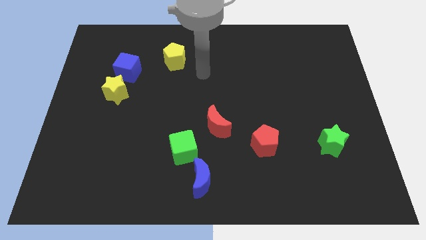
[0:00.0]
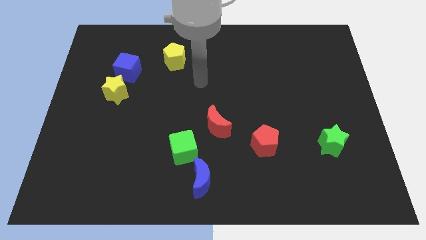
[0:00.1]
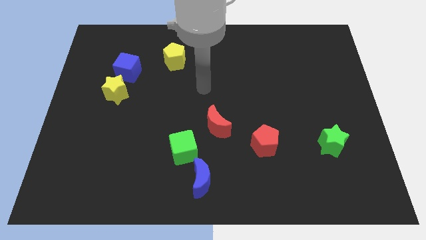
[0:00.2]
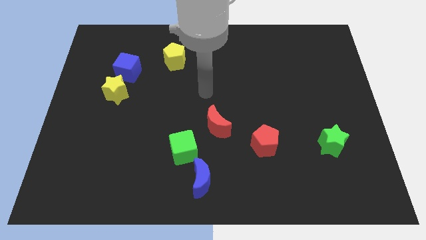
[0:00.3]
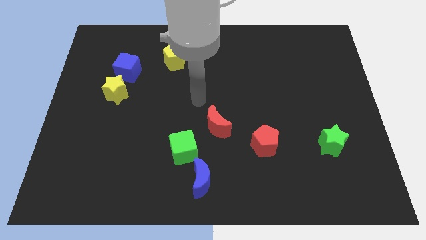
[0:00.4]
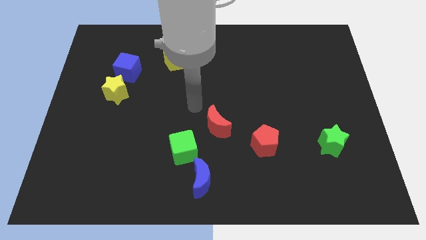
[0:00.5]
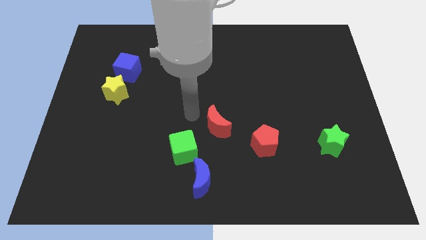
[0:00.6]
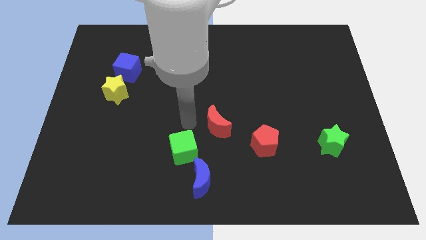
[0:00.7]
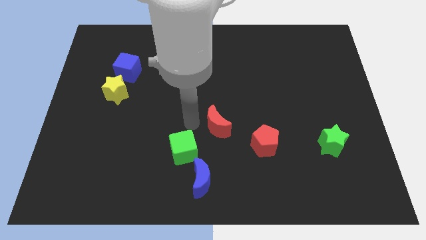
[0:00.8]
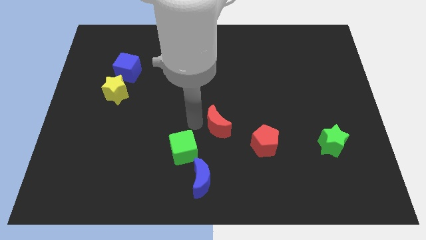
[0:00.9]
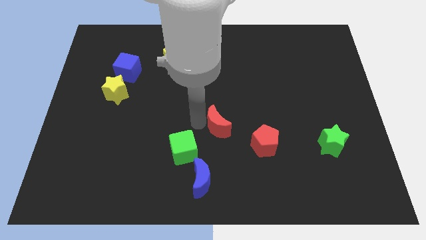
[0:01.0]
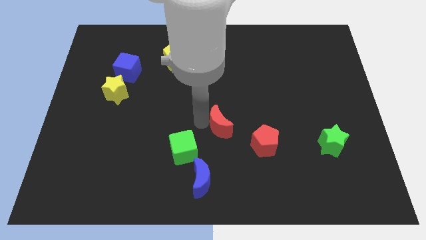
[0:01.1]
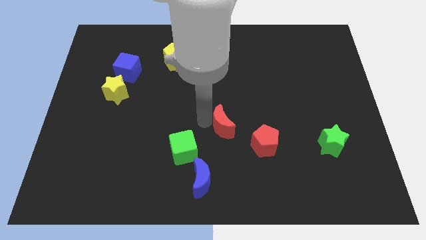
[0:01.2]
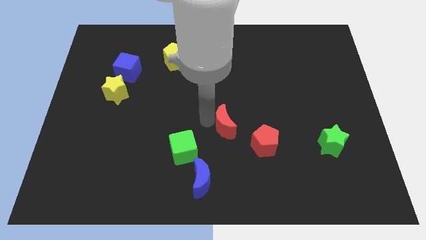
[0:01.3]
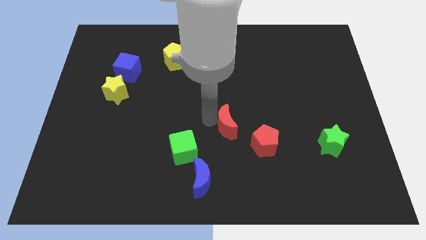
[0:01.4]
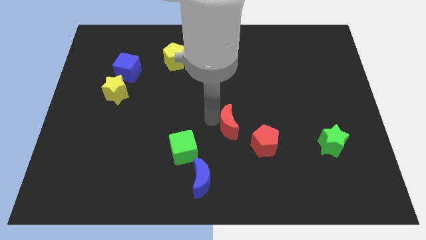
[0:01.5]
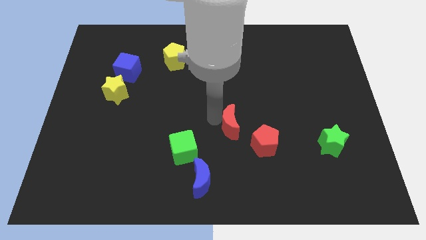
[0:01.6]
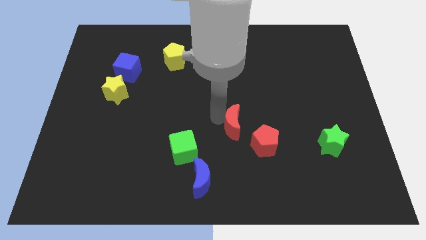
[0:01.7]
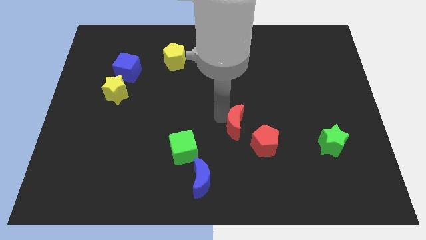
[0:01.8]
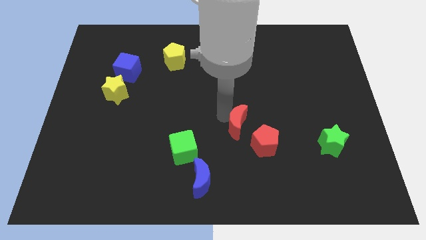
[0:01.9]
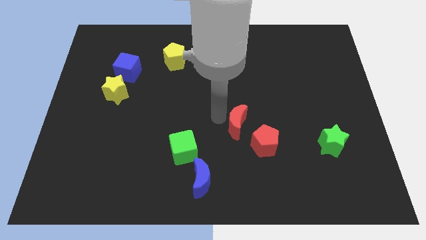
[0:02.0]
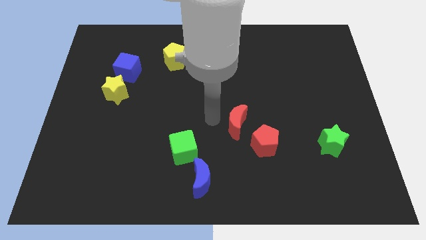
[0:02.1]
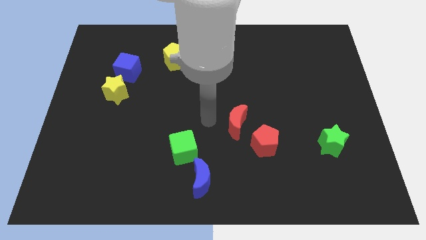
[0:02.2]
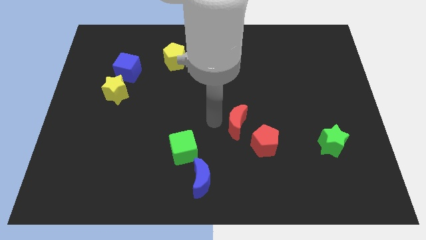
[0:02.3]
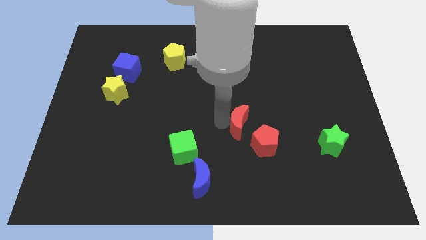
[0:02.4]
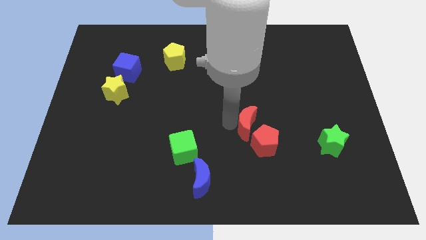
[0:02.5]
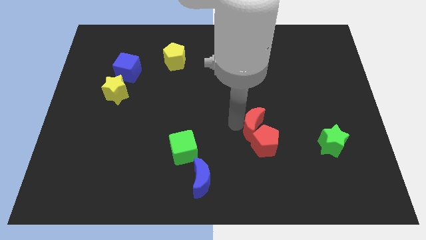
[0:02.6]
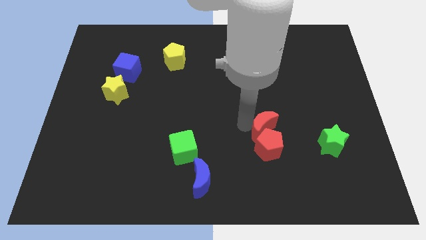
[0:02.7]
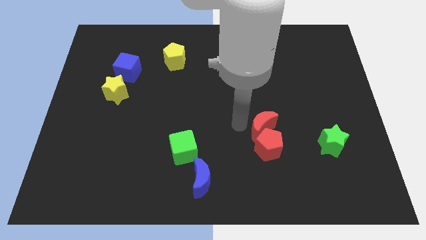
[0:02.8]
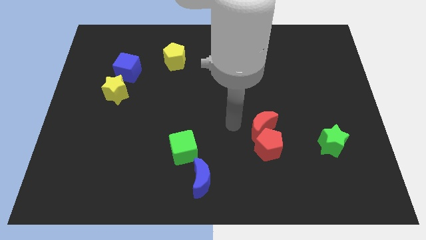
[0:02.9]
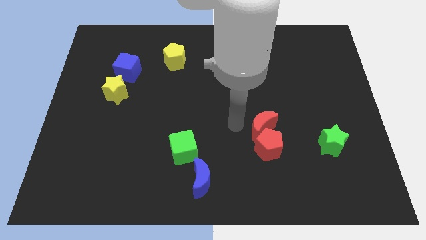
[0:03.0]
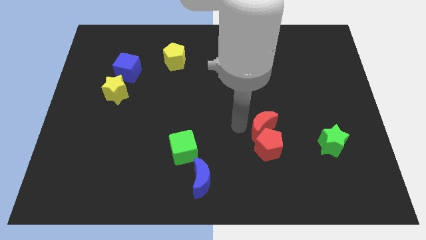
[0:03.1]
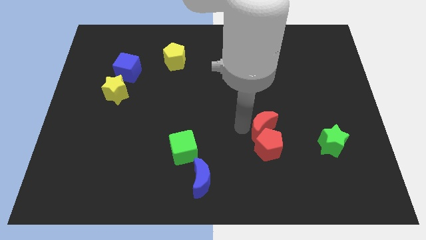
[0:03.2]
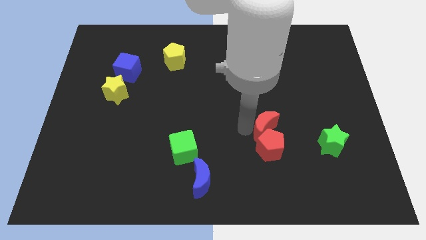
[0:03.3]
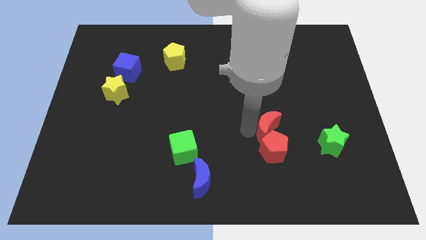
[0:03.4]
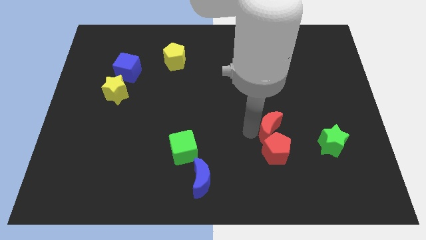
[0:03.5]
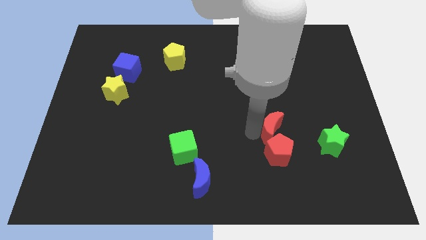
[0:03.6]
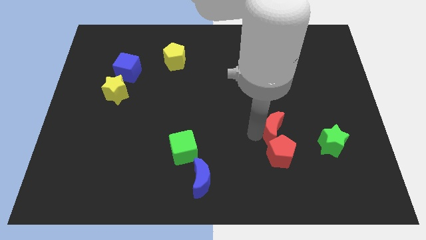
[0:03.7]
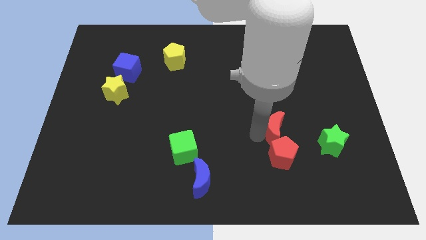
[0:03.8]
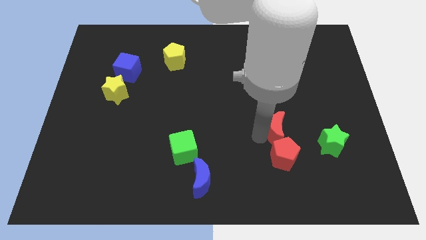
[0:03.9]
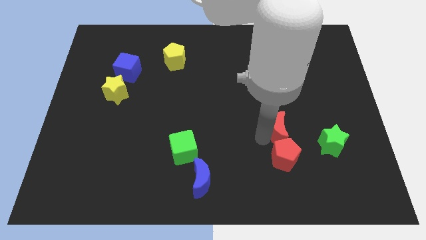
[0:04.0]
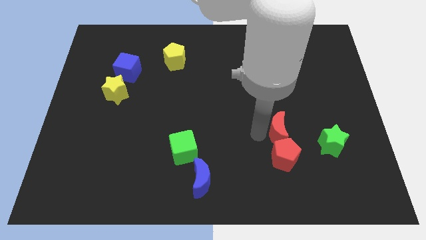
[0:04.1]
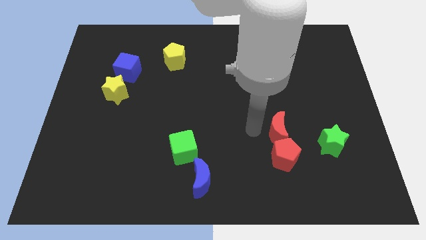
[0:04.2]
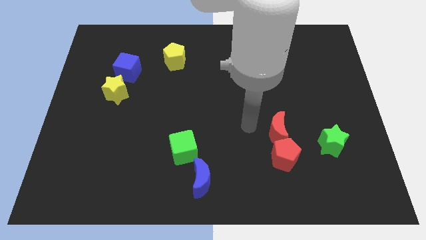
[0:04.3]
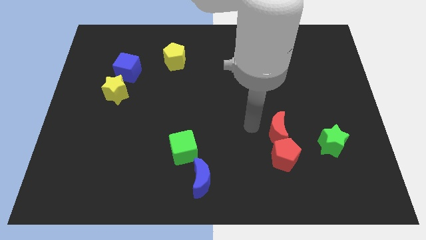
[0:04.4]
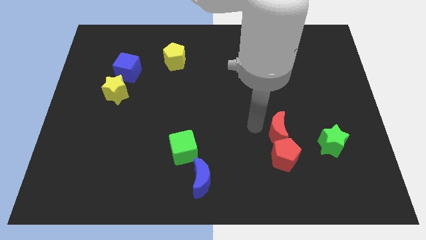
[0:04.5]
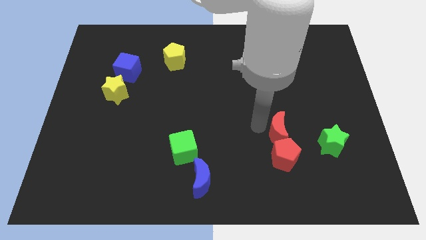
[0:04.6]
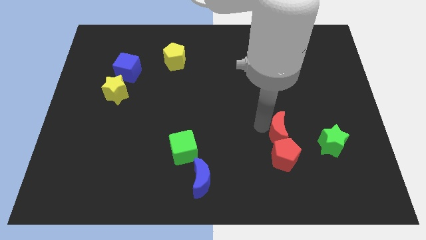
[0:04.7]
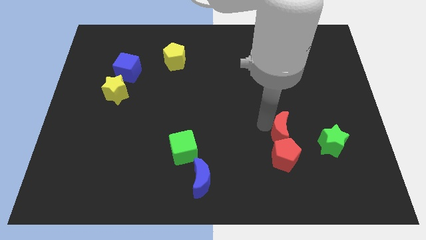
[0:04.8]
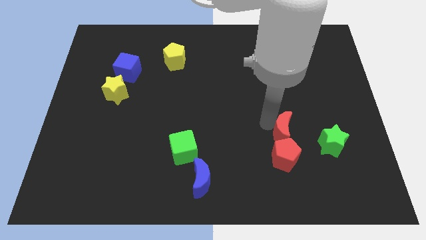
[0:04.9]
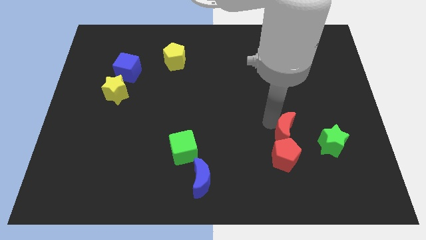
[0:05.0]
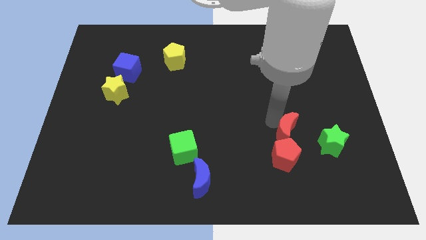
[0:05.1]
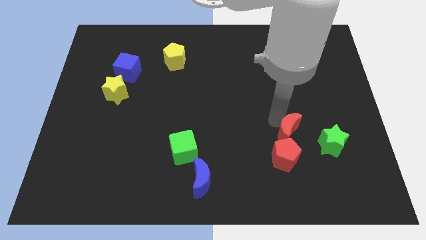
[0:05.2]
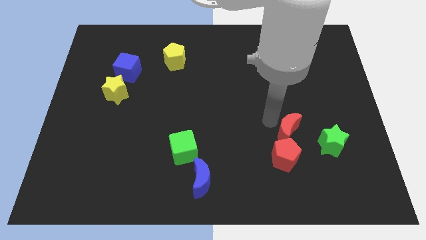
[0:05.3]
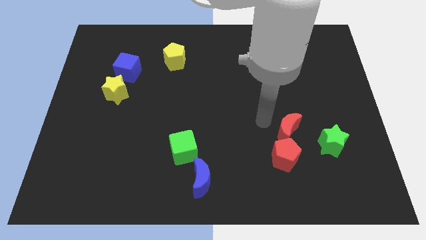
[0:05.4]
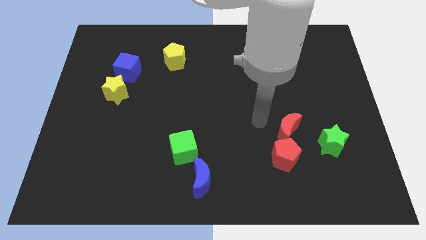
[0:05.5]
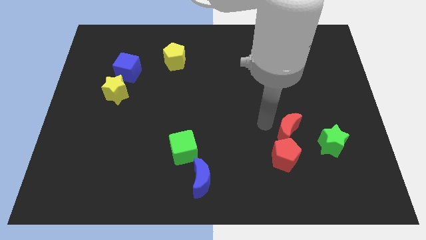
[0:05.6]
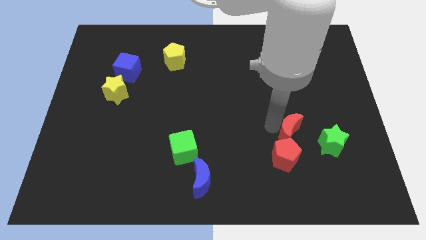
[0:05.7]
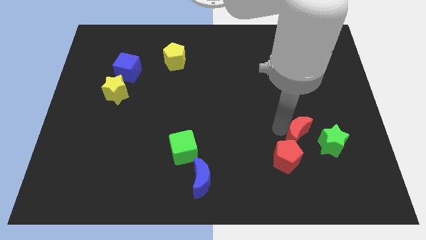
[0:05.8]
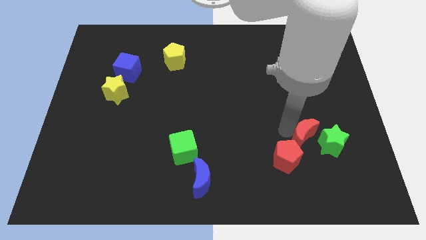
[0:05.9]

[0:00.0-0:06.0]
put the red moon close to the green star

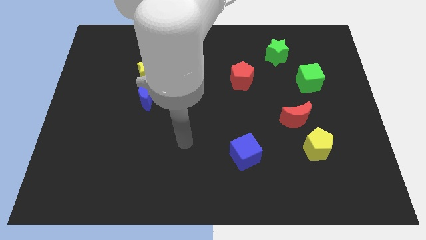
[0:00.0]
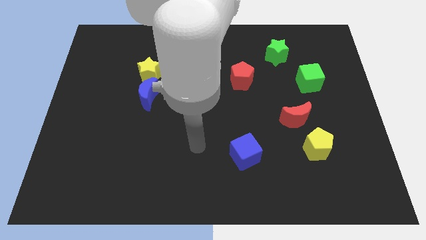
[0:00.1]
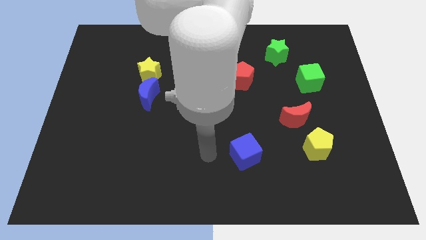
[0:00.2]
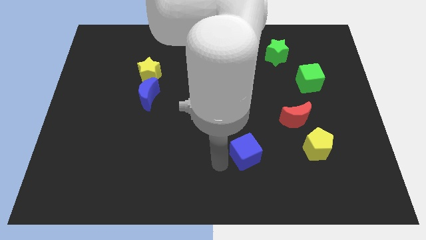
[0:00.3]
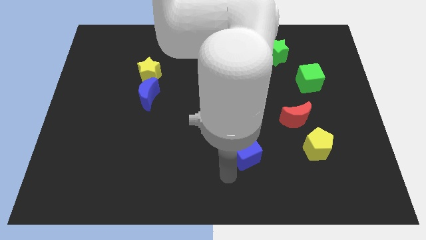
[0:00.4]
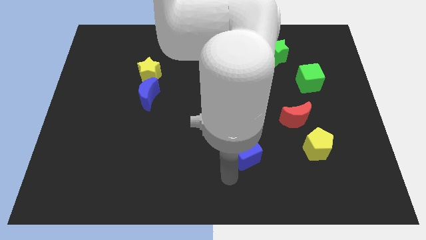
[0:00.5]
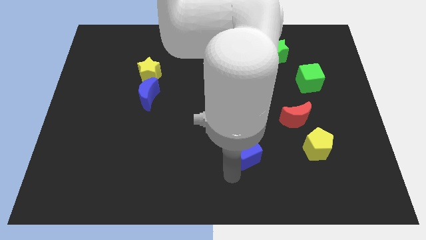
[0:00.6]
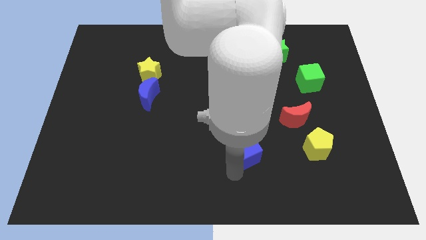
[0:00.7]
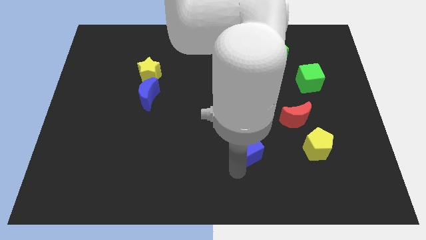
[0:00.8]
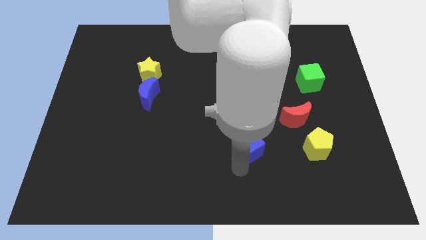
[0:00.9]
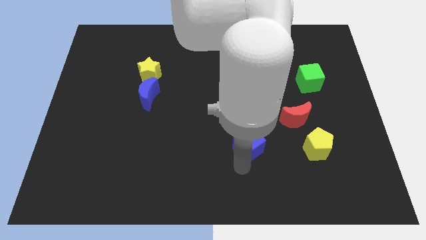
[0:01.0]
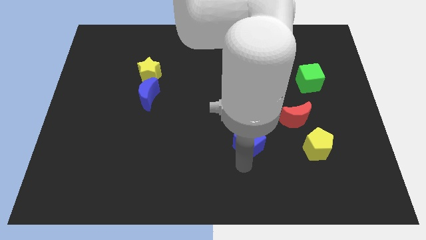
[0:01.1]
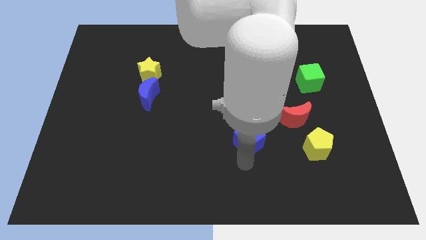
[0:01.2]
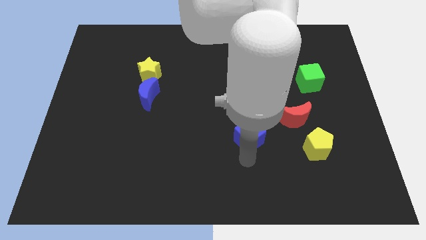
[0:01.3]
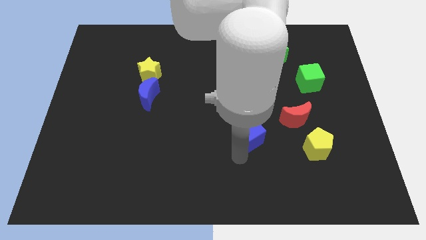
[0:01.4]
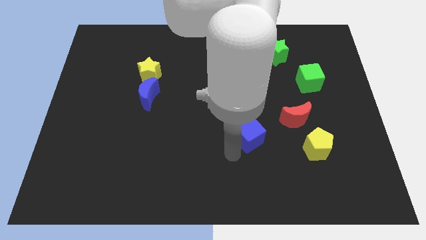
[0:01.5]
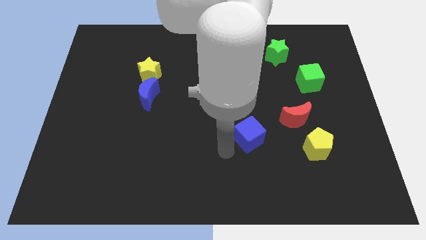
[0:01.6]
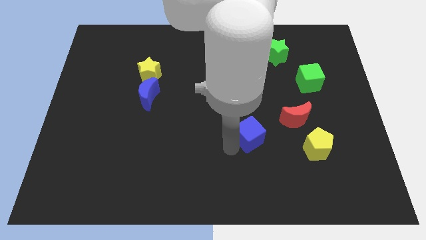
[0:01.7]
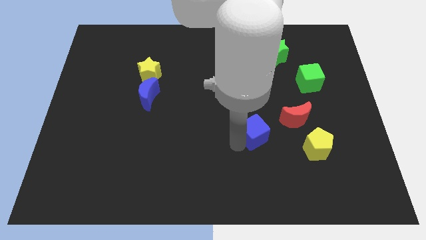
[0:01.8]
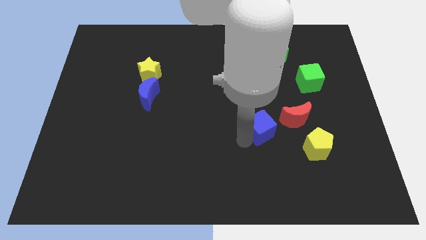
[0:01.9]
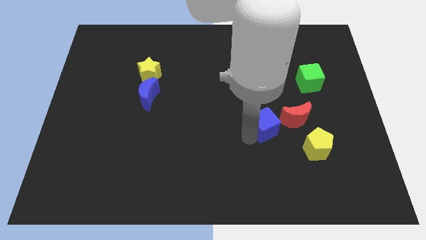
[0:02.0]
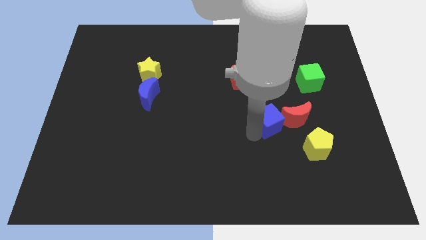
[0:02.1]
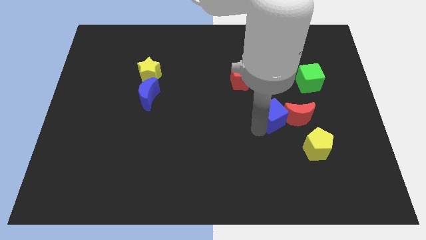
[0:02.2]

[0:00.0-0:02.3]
move the blue cube next to the red moon
